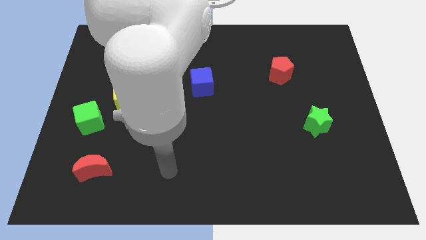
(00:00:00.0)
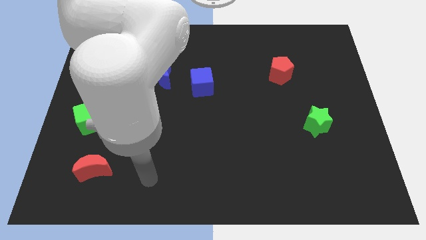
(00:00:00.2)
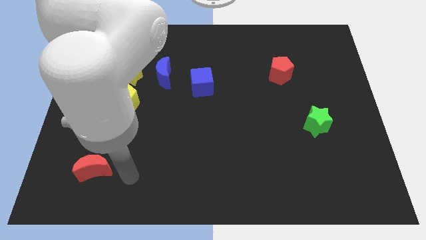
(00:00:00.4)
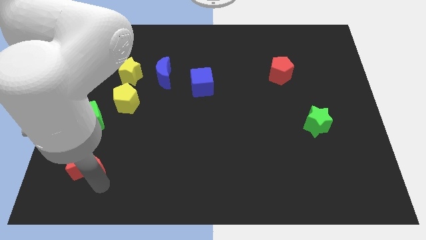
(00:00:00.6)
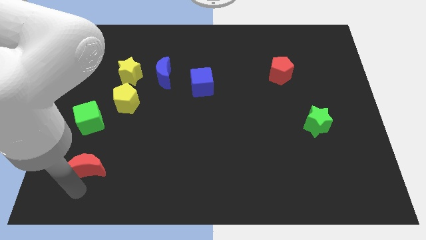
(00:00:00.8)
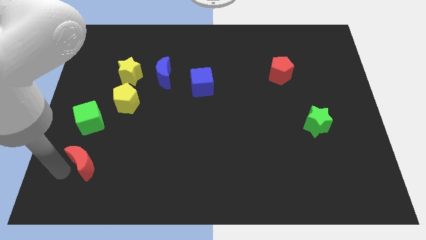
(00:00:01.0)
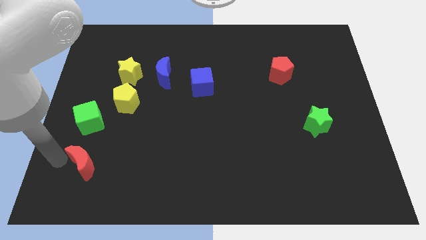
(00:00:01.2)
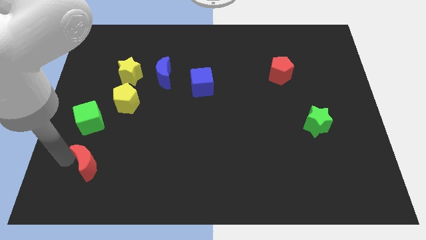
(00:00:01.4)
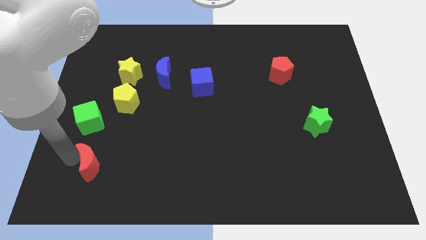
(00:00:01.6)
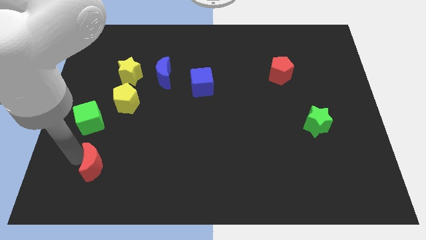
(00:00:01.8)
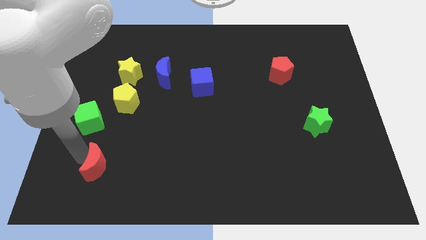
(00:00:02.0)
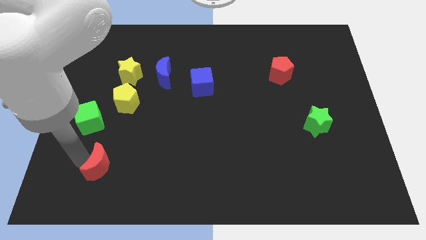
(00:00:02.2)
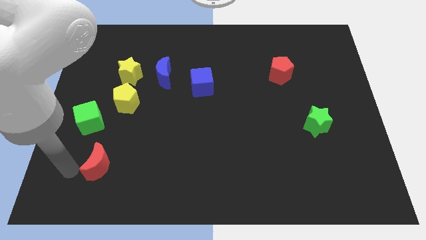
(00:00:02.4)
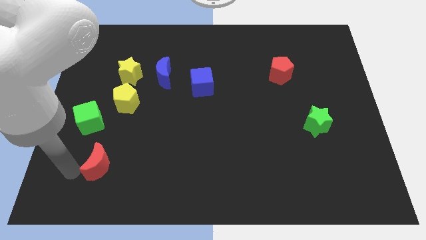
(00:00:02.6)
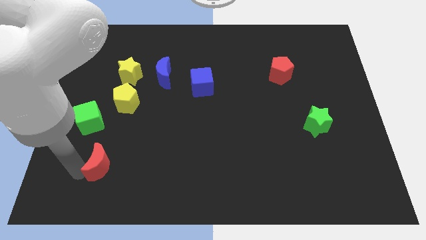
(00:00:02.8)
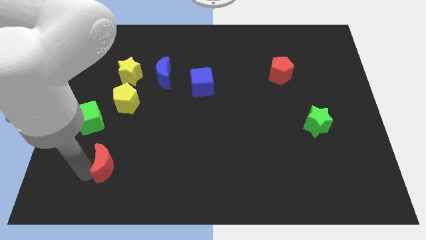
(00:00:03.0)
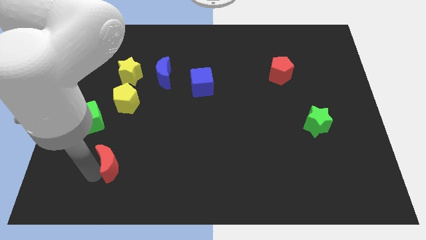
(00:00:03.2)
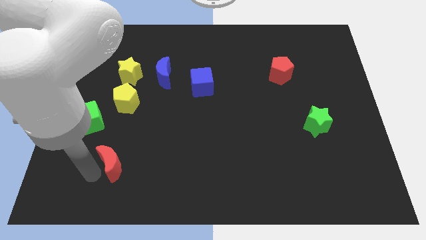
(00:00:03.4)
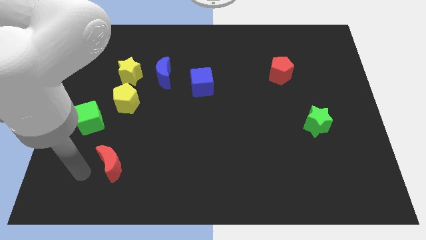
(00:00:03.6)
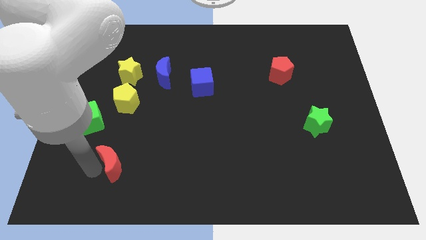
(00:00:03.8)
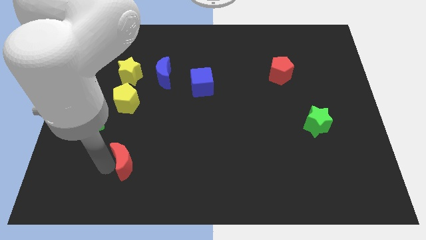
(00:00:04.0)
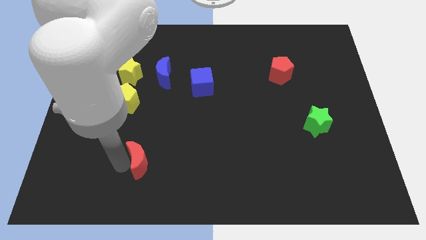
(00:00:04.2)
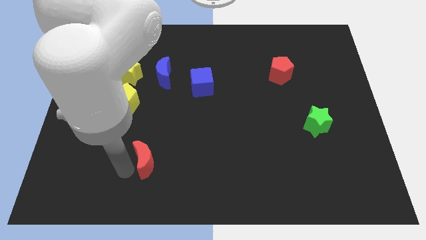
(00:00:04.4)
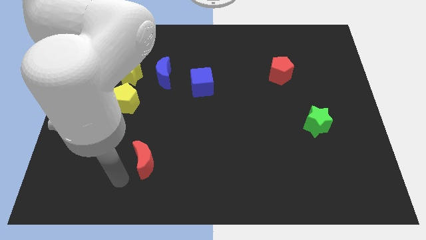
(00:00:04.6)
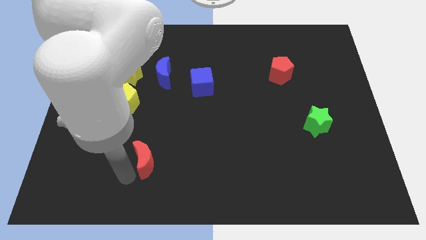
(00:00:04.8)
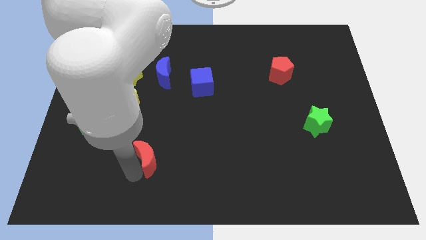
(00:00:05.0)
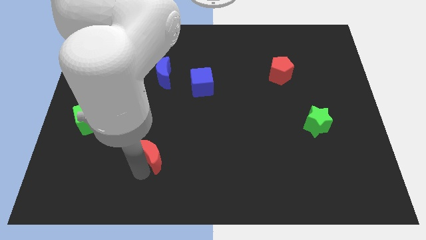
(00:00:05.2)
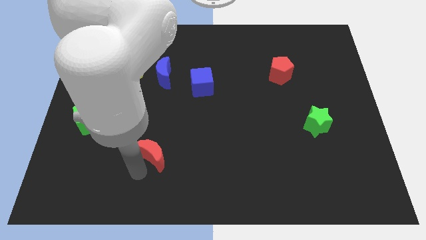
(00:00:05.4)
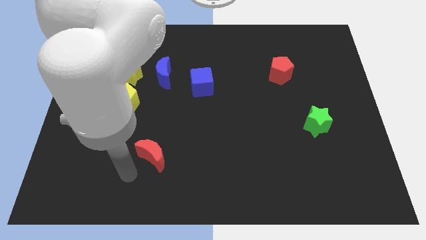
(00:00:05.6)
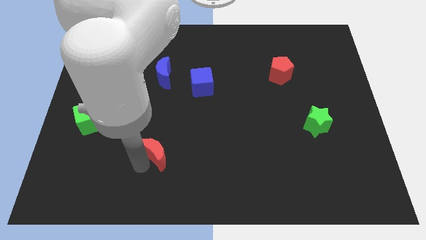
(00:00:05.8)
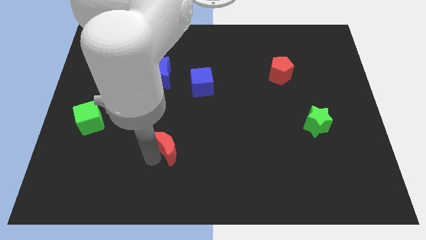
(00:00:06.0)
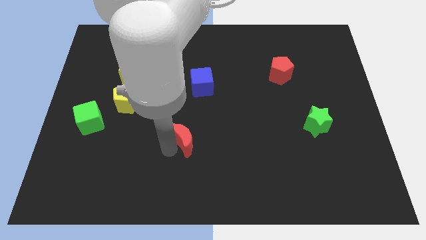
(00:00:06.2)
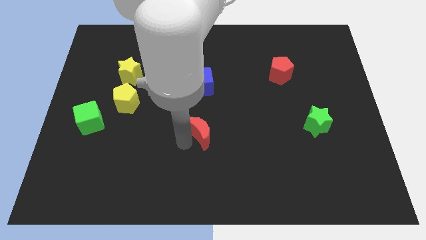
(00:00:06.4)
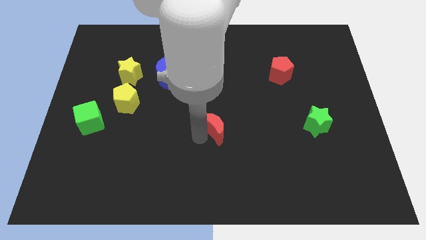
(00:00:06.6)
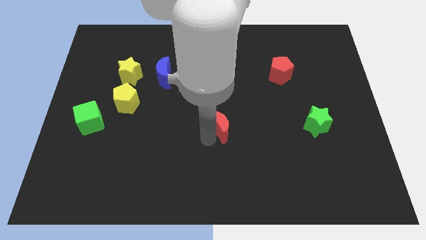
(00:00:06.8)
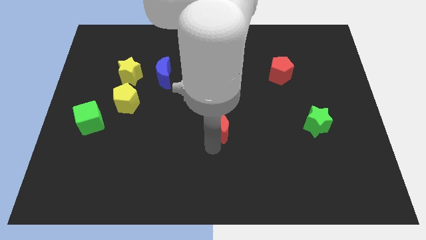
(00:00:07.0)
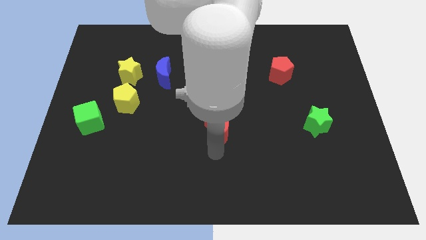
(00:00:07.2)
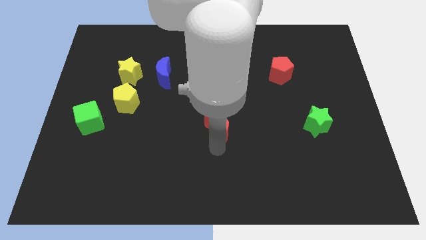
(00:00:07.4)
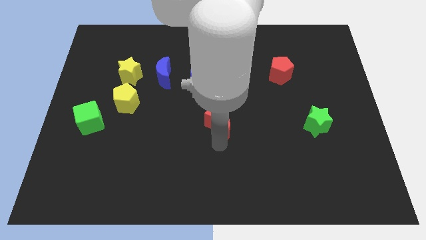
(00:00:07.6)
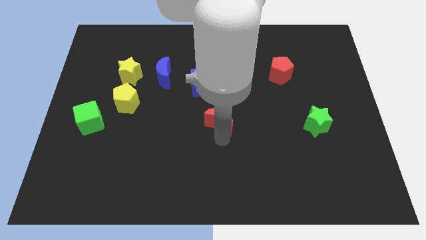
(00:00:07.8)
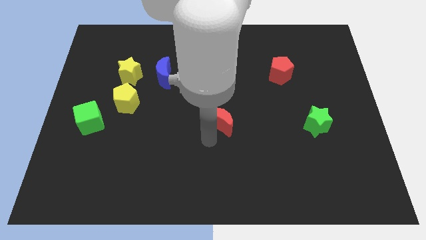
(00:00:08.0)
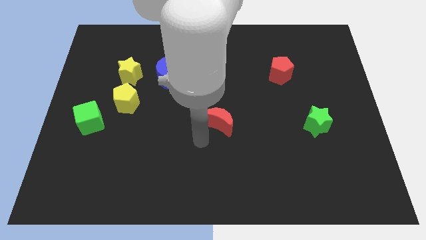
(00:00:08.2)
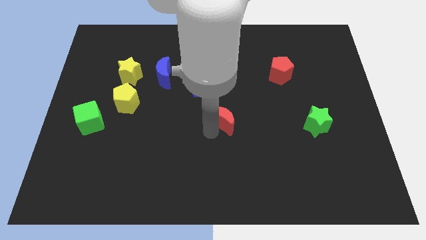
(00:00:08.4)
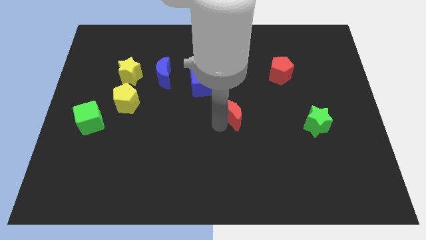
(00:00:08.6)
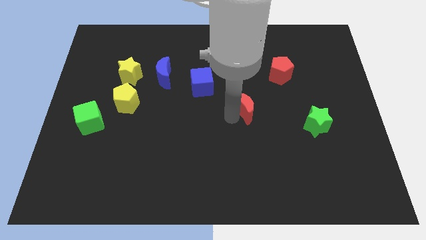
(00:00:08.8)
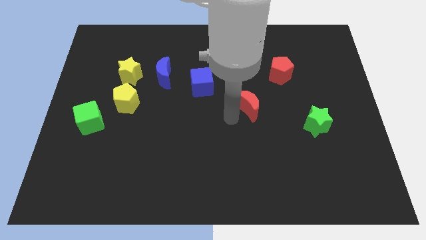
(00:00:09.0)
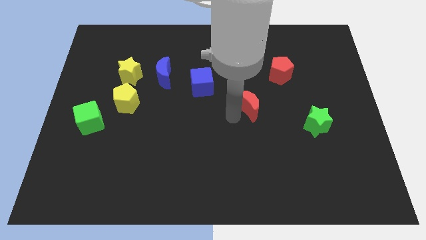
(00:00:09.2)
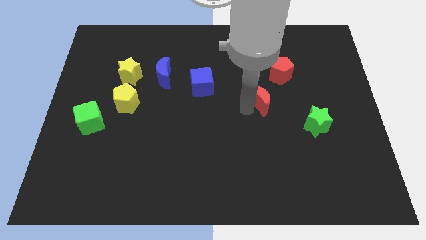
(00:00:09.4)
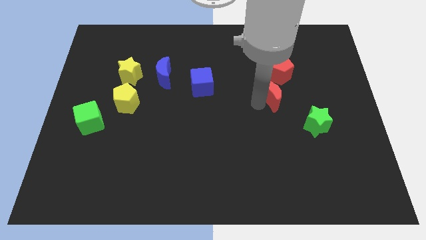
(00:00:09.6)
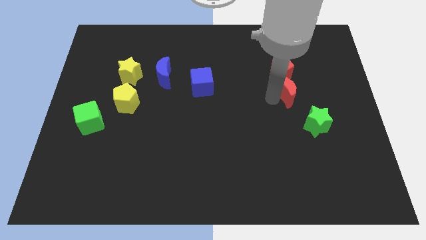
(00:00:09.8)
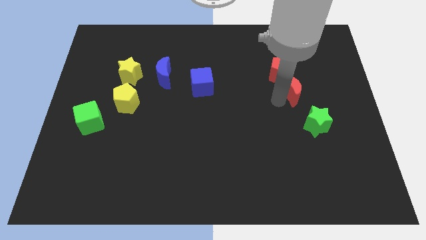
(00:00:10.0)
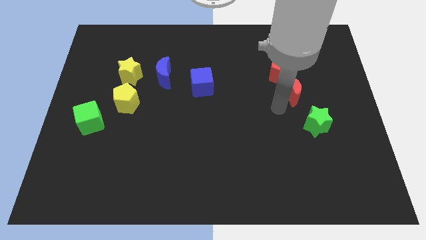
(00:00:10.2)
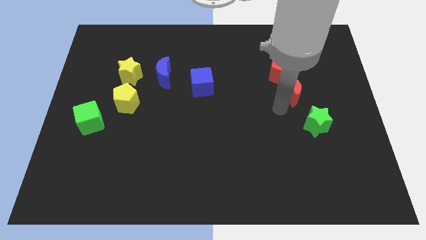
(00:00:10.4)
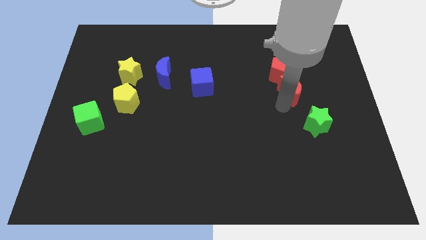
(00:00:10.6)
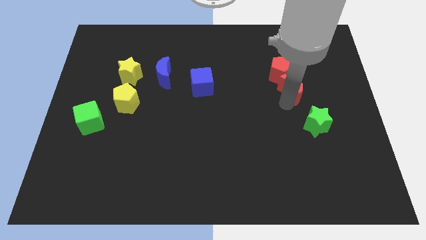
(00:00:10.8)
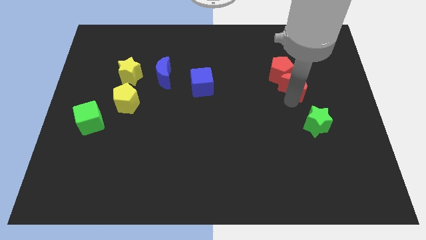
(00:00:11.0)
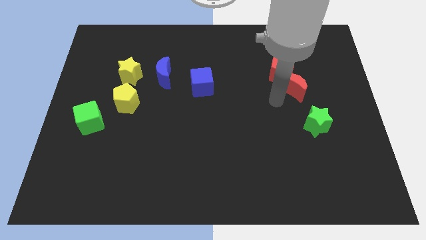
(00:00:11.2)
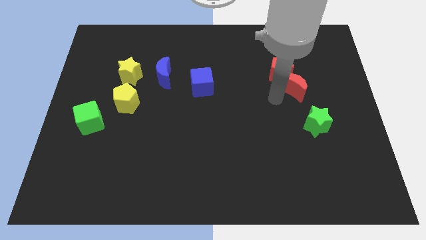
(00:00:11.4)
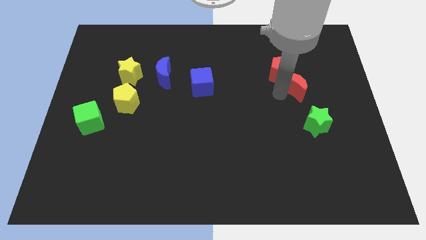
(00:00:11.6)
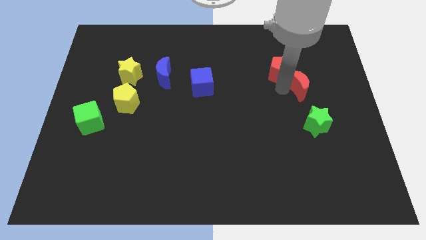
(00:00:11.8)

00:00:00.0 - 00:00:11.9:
push the red moon to the right side of the red pentagon
